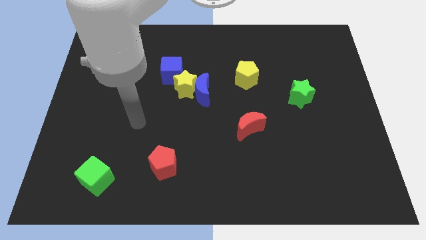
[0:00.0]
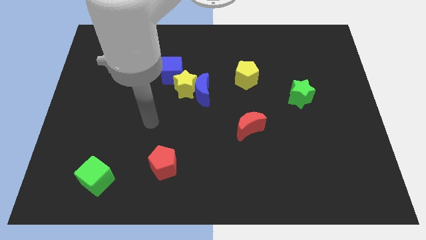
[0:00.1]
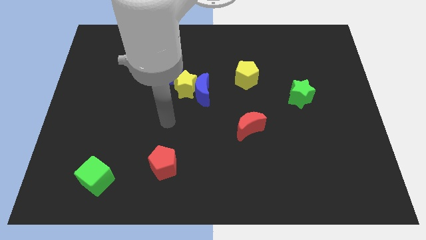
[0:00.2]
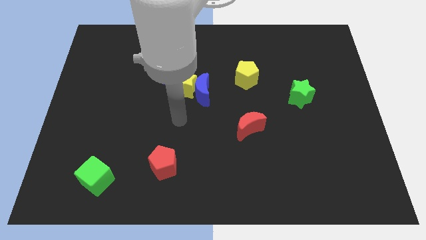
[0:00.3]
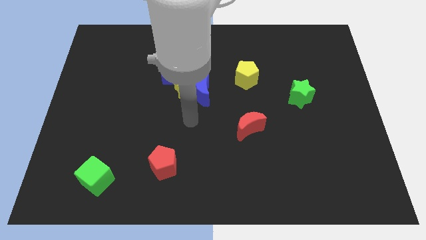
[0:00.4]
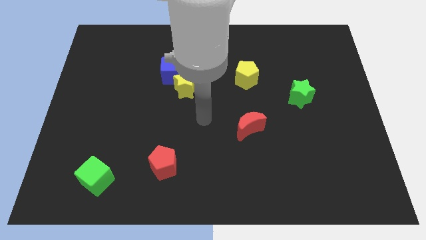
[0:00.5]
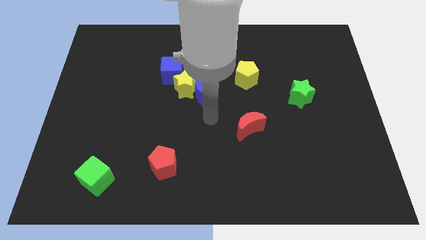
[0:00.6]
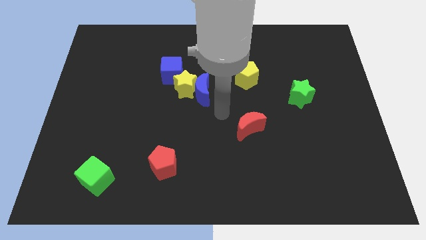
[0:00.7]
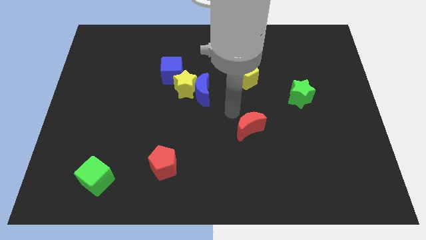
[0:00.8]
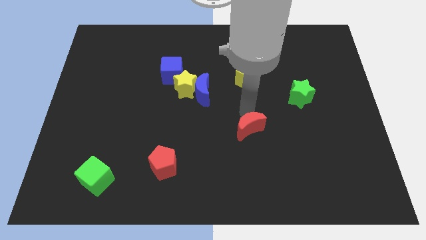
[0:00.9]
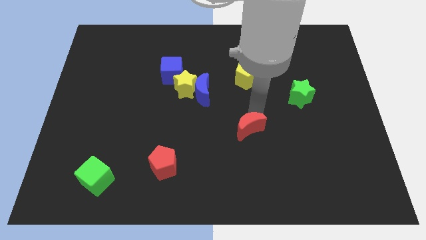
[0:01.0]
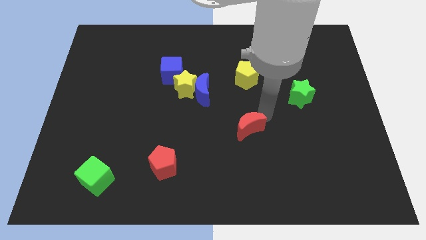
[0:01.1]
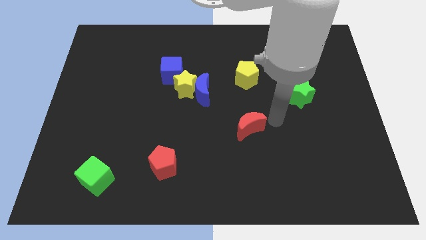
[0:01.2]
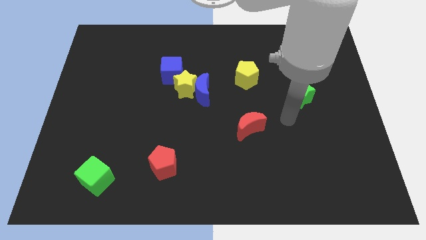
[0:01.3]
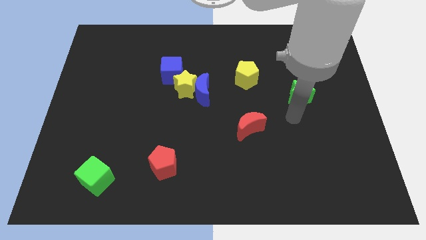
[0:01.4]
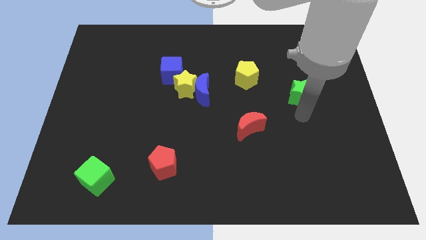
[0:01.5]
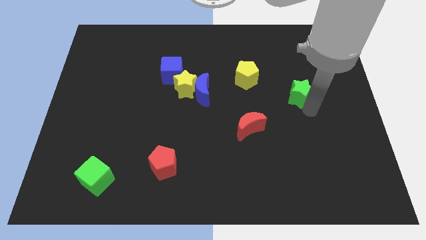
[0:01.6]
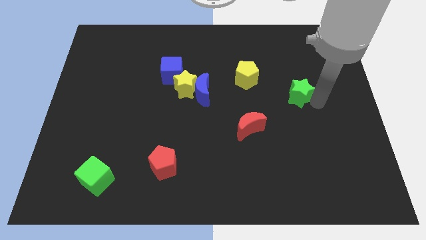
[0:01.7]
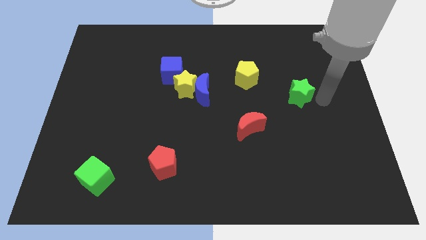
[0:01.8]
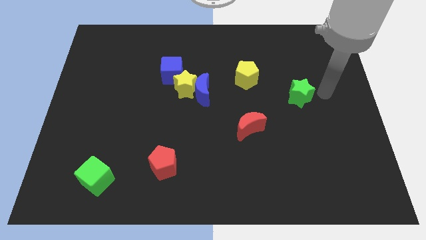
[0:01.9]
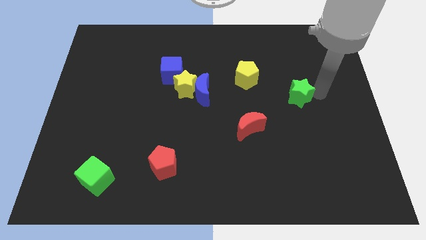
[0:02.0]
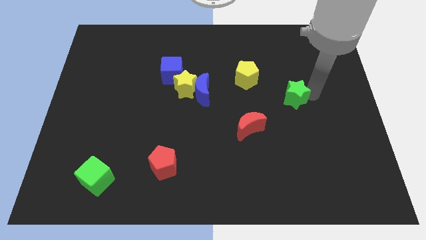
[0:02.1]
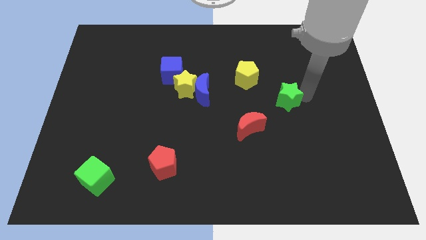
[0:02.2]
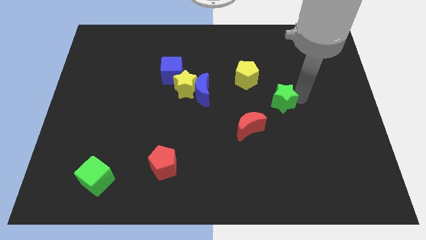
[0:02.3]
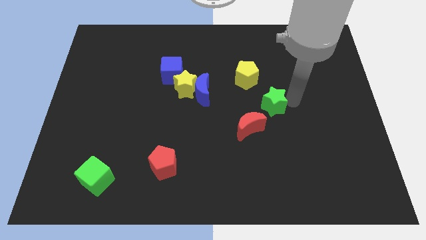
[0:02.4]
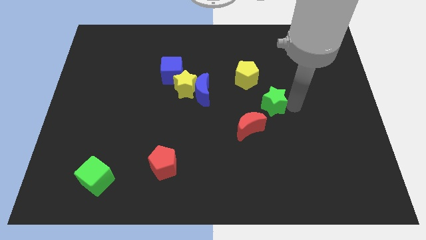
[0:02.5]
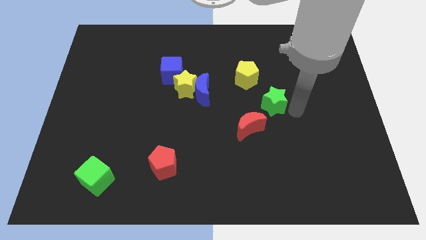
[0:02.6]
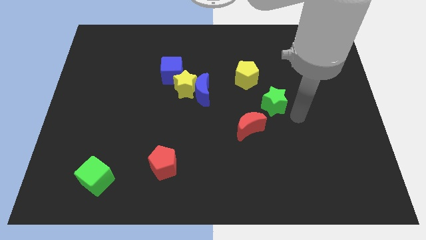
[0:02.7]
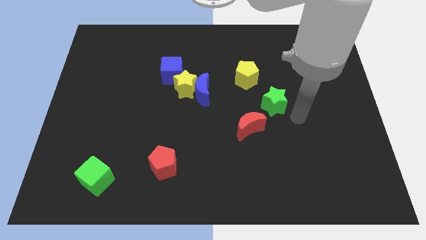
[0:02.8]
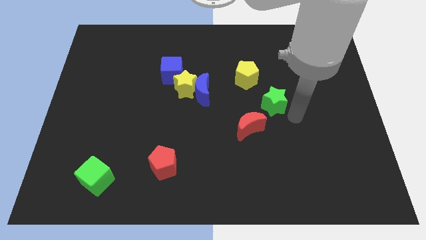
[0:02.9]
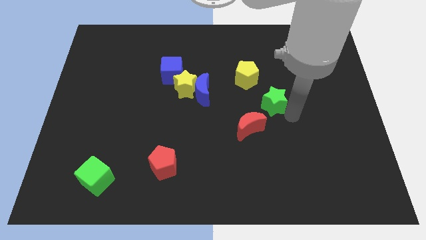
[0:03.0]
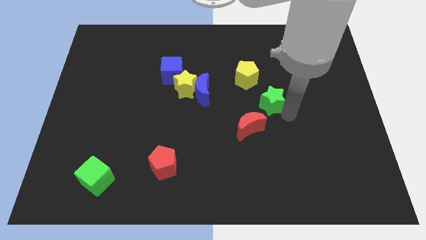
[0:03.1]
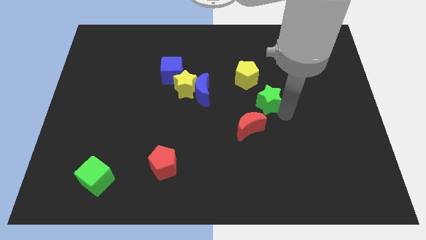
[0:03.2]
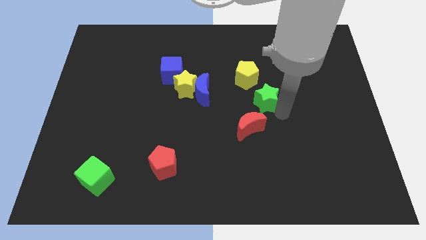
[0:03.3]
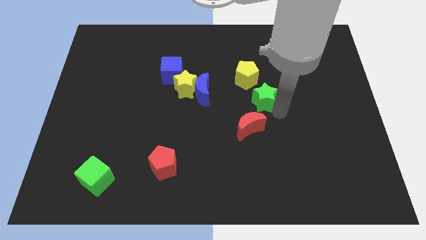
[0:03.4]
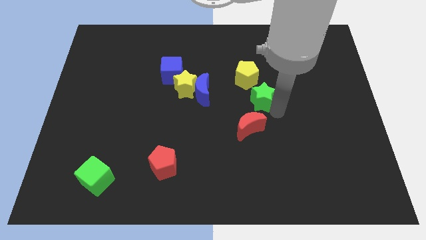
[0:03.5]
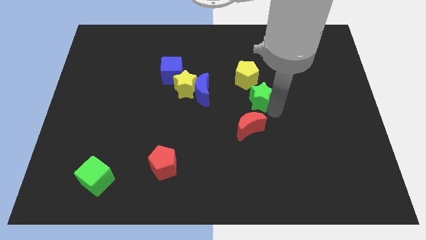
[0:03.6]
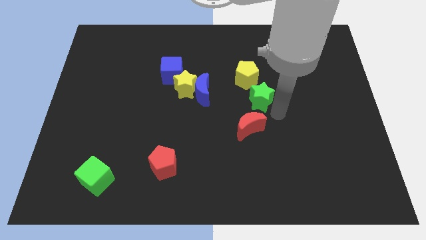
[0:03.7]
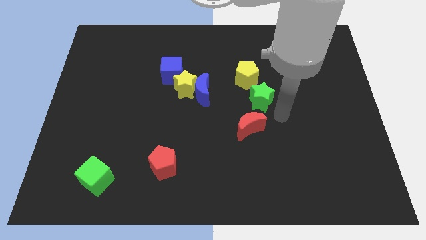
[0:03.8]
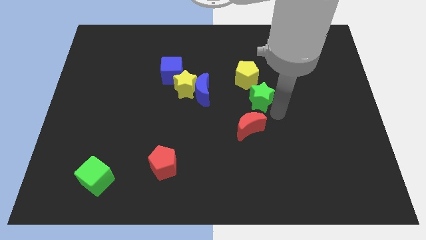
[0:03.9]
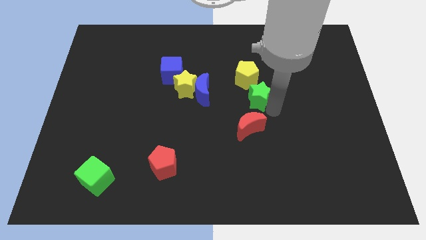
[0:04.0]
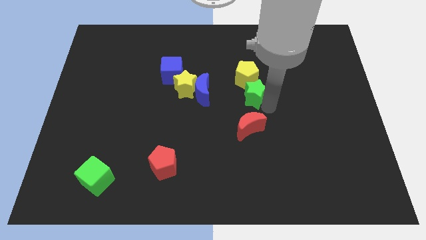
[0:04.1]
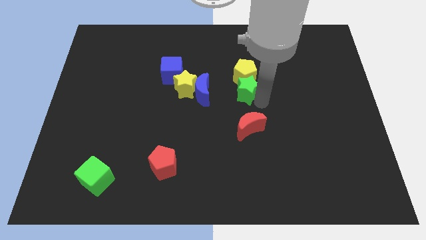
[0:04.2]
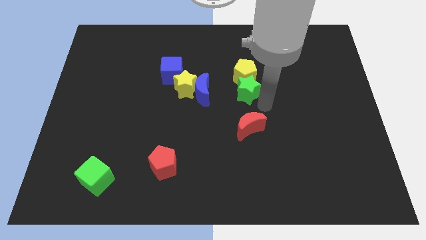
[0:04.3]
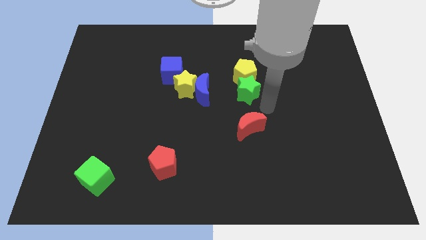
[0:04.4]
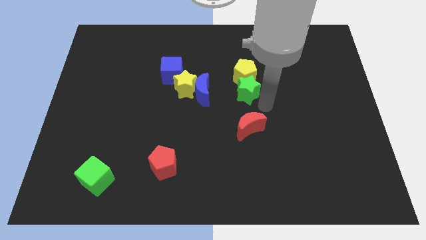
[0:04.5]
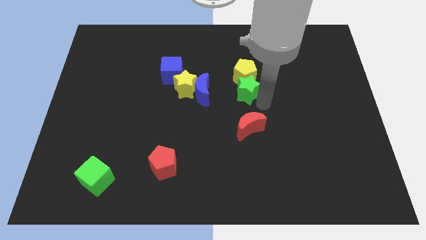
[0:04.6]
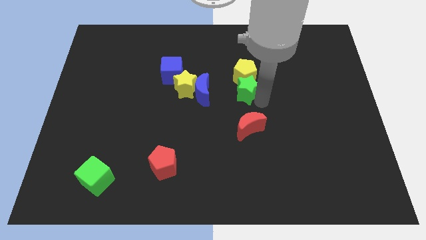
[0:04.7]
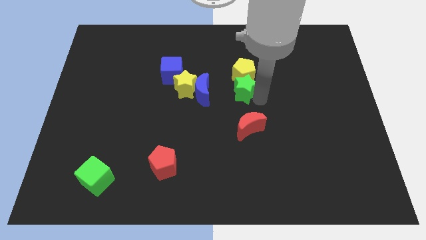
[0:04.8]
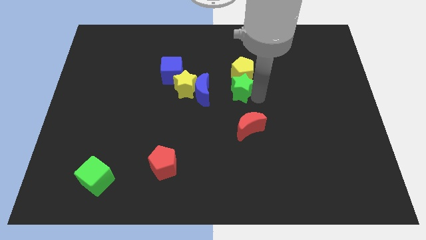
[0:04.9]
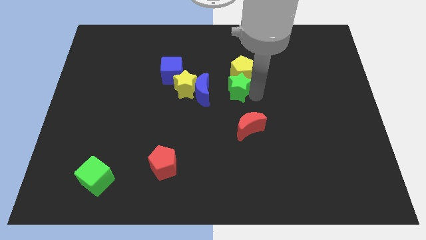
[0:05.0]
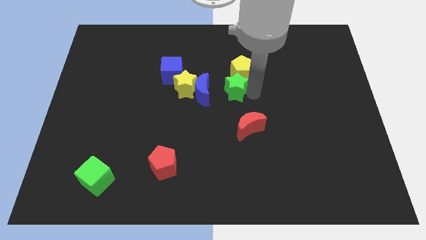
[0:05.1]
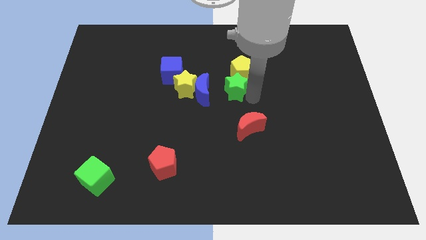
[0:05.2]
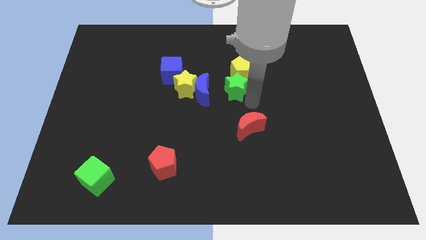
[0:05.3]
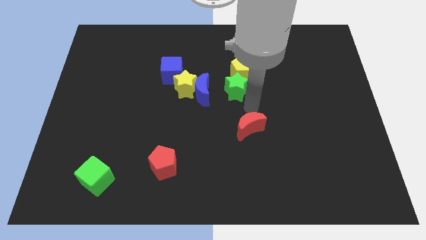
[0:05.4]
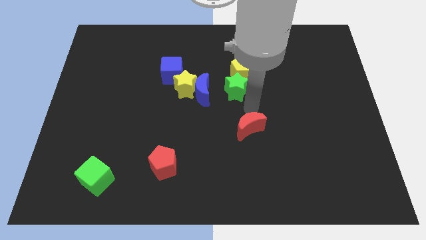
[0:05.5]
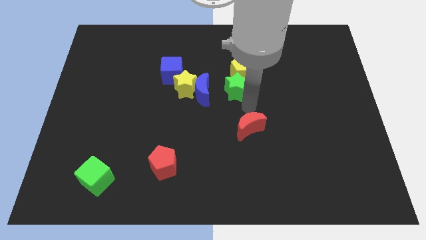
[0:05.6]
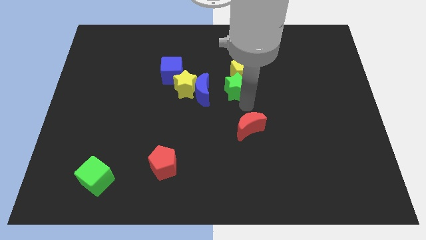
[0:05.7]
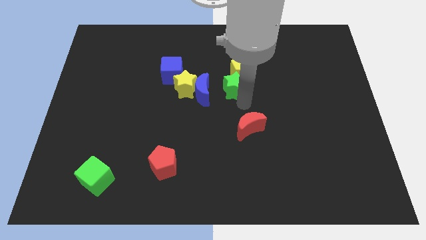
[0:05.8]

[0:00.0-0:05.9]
move the green star diagonally up and to the right of the blue moon

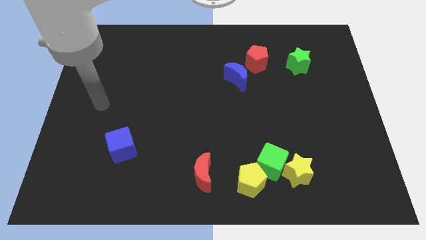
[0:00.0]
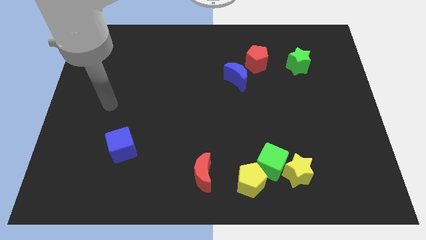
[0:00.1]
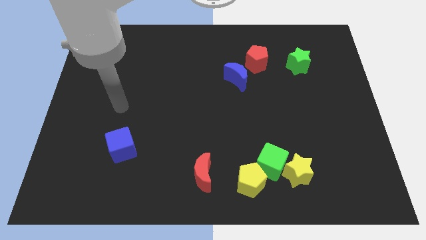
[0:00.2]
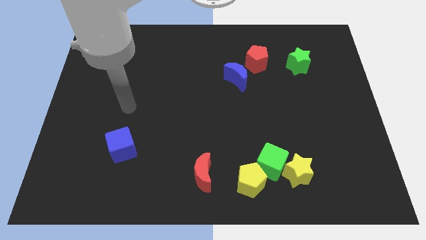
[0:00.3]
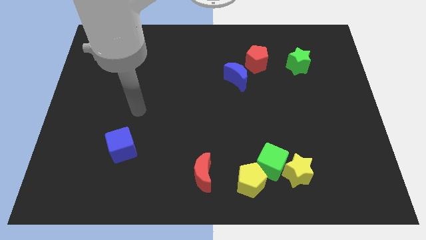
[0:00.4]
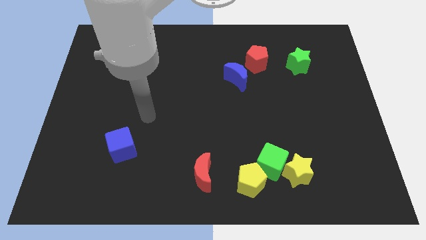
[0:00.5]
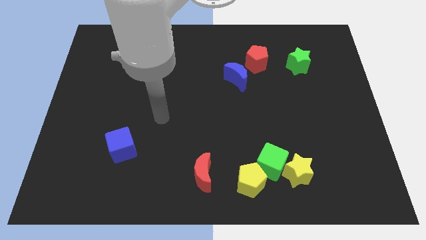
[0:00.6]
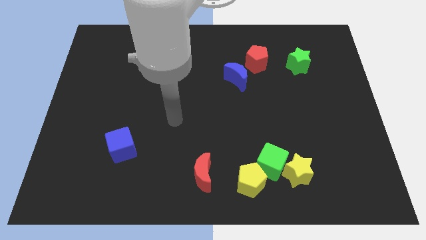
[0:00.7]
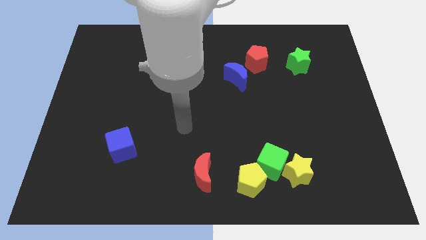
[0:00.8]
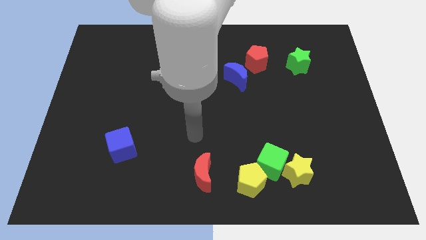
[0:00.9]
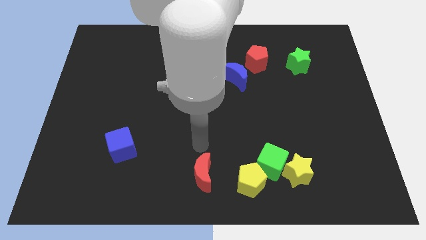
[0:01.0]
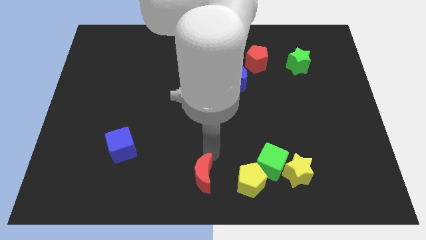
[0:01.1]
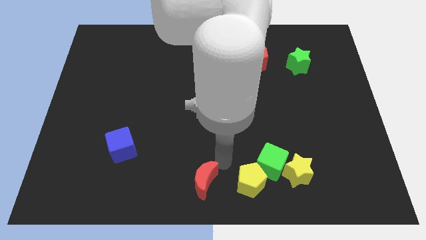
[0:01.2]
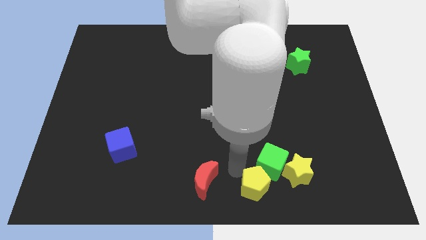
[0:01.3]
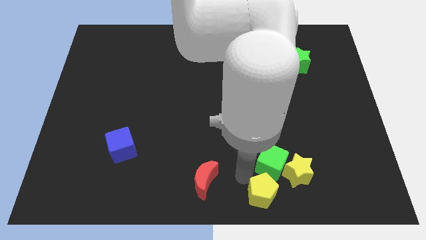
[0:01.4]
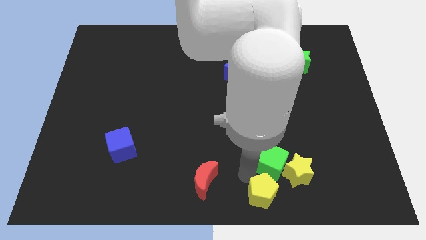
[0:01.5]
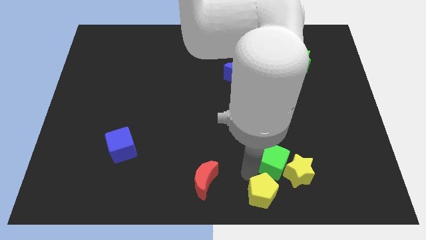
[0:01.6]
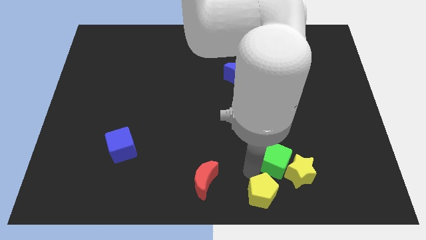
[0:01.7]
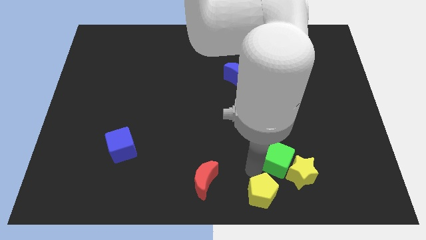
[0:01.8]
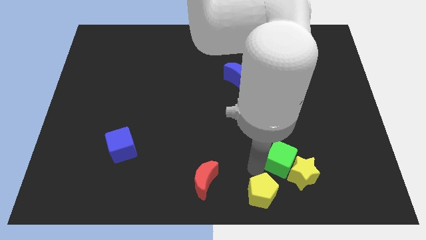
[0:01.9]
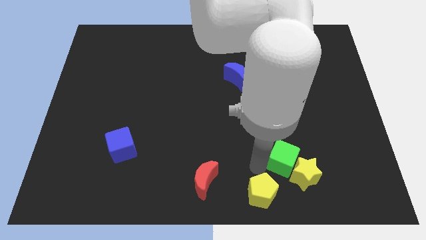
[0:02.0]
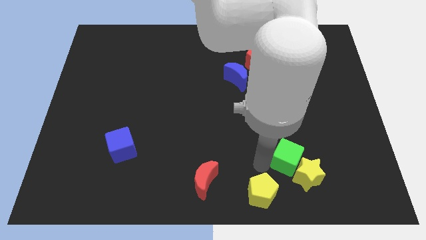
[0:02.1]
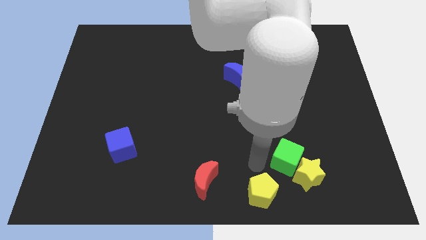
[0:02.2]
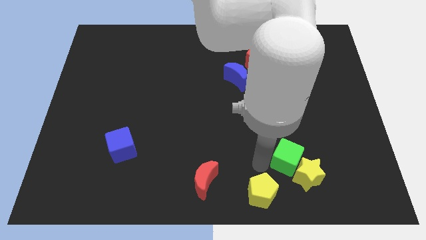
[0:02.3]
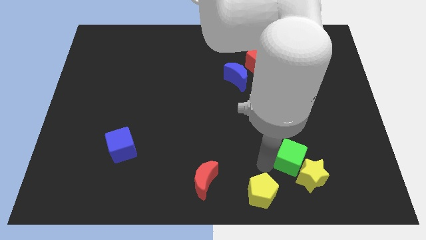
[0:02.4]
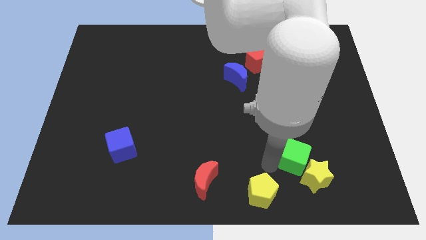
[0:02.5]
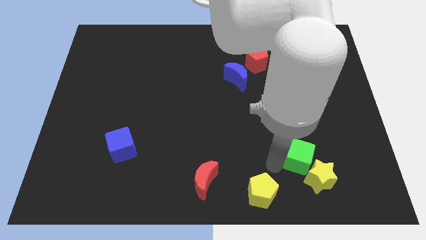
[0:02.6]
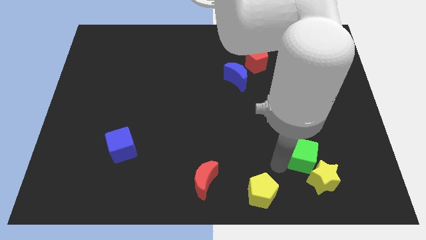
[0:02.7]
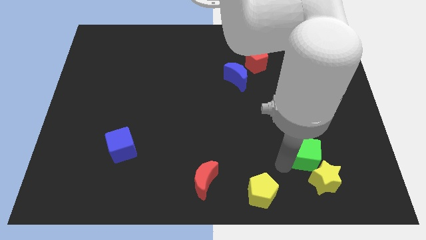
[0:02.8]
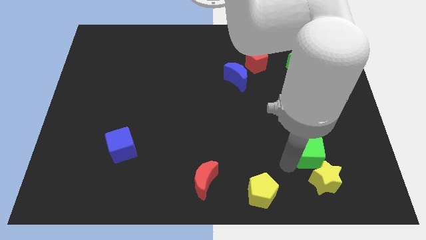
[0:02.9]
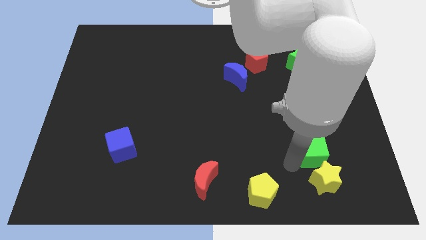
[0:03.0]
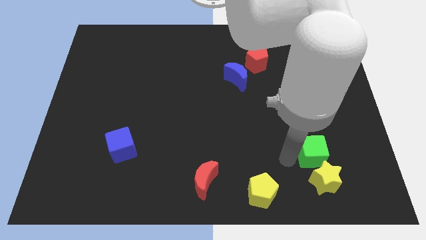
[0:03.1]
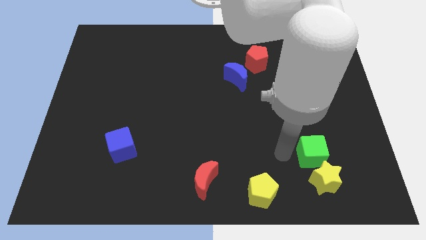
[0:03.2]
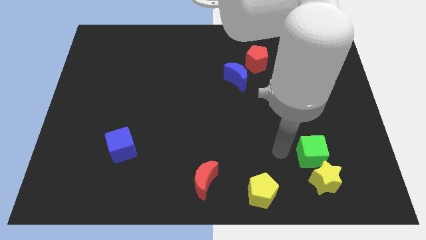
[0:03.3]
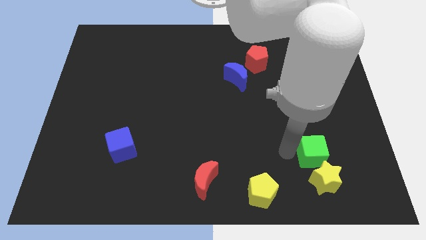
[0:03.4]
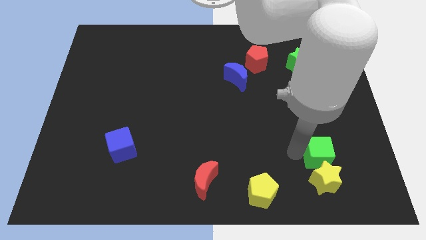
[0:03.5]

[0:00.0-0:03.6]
slide the green cube diagonally up and to the right of the yellow star
